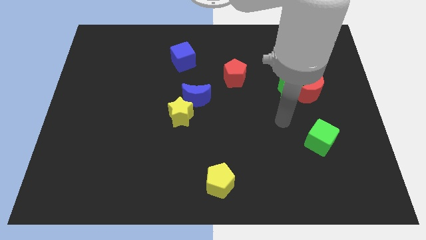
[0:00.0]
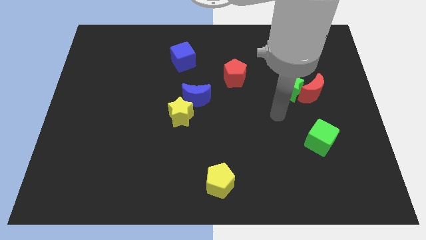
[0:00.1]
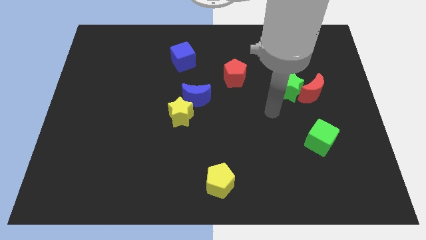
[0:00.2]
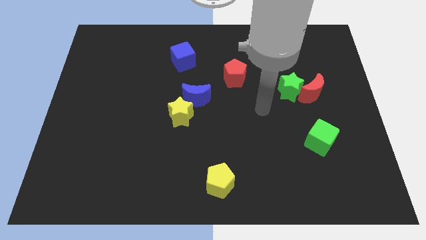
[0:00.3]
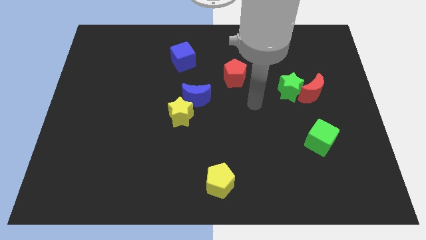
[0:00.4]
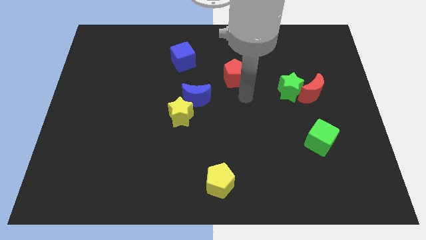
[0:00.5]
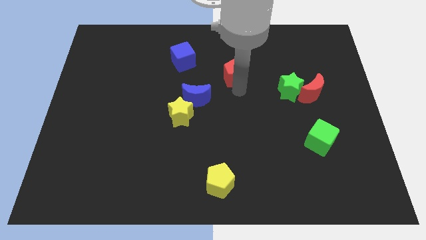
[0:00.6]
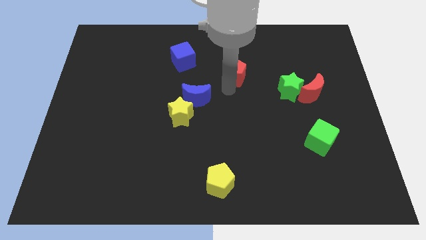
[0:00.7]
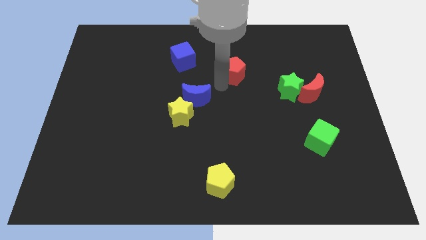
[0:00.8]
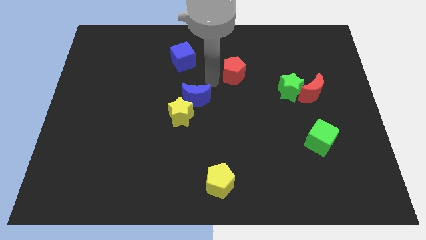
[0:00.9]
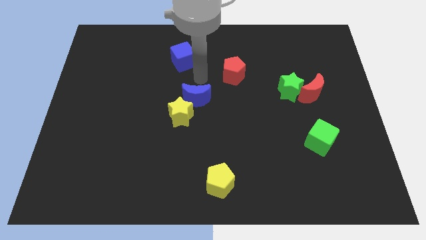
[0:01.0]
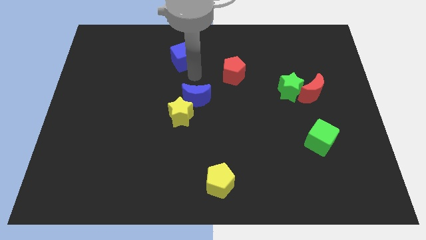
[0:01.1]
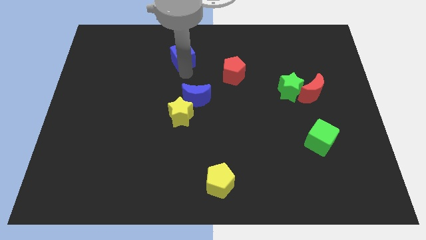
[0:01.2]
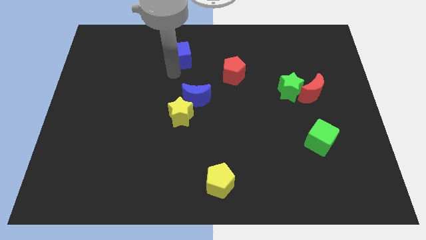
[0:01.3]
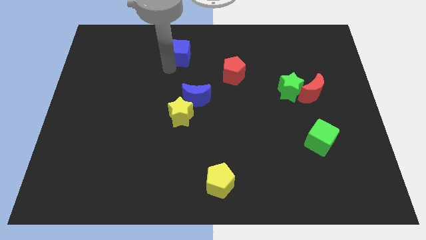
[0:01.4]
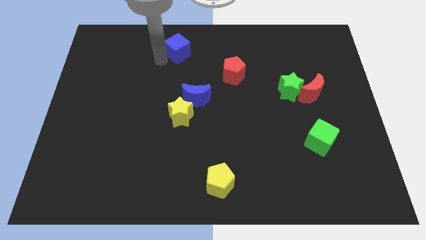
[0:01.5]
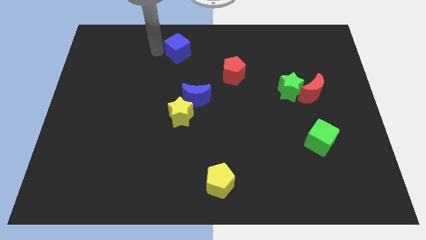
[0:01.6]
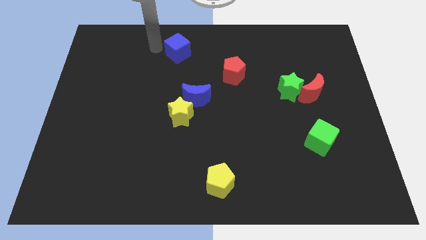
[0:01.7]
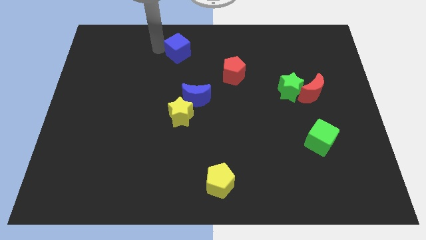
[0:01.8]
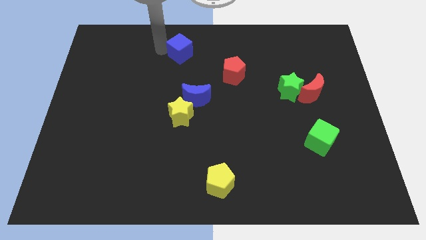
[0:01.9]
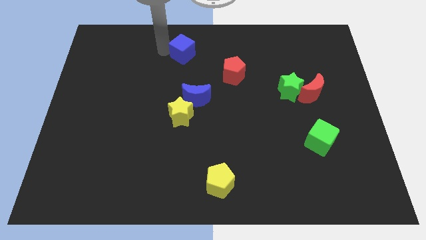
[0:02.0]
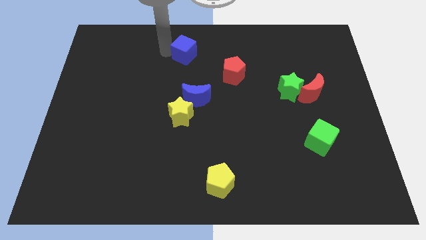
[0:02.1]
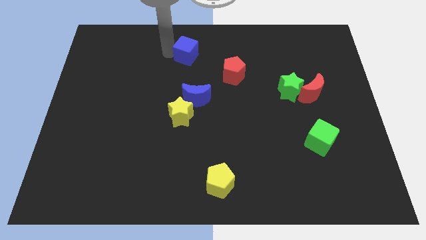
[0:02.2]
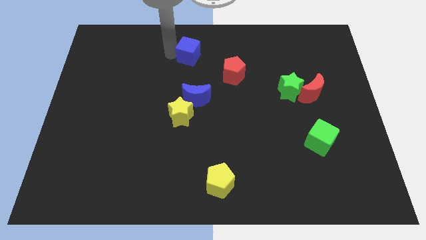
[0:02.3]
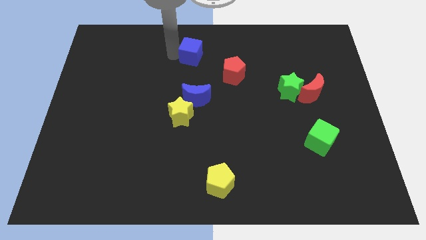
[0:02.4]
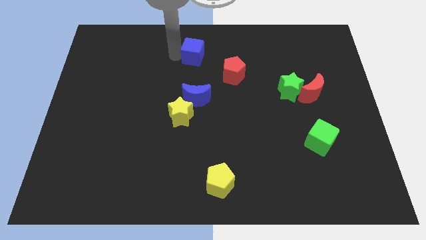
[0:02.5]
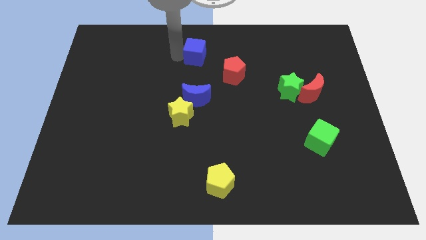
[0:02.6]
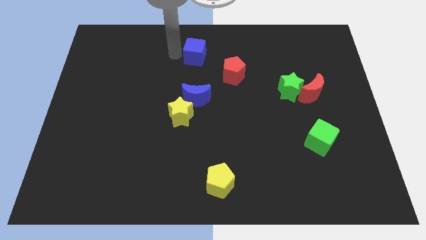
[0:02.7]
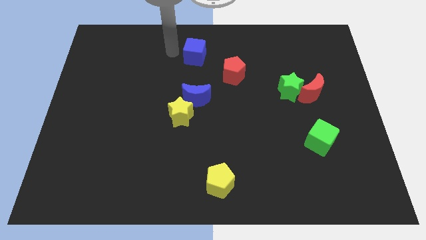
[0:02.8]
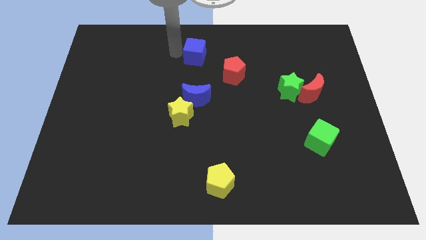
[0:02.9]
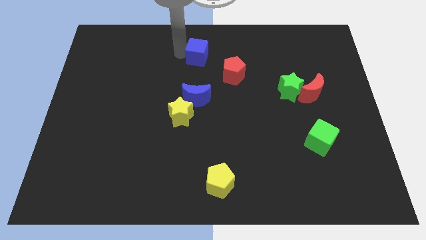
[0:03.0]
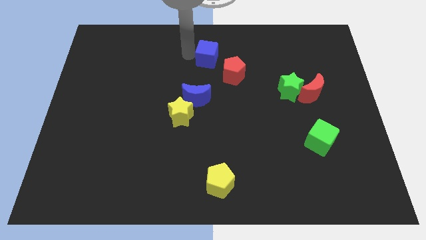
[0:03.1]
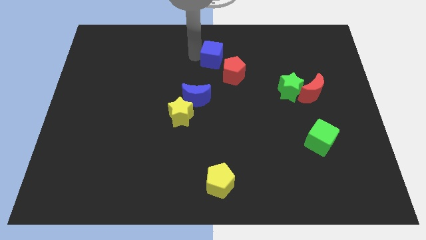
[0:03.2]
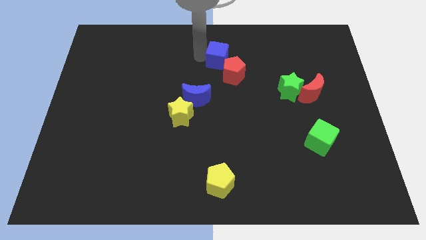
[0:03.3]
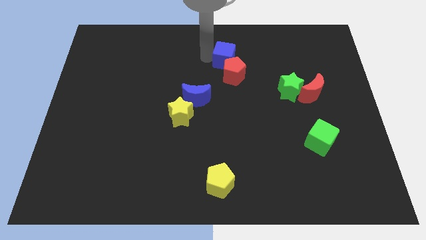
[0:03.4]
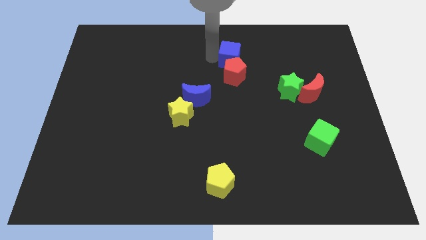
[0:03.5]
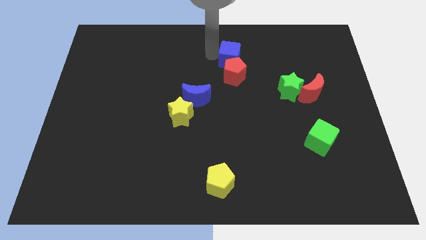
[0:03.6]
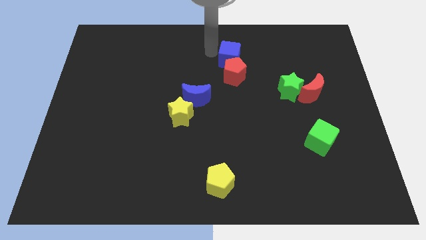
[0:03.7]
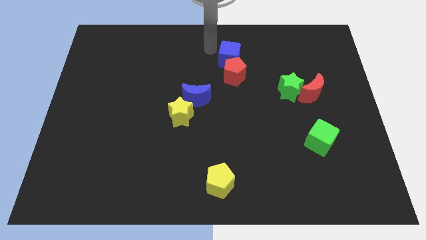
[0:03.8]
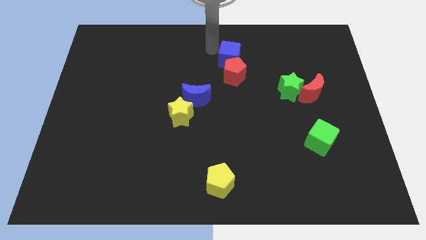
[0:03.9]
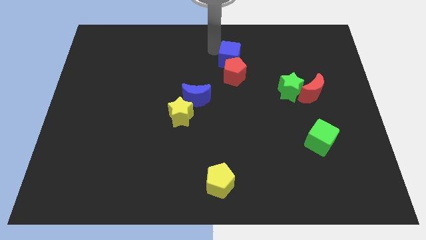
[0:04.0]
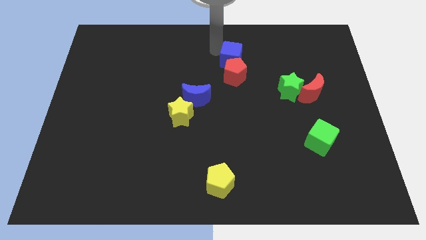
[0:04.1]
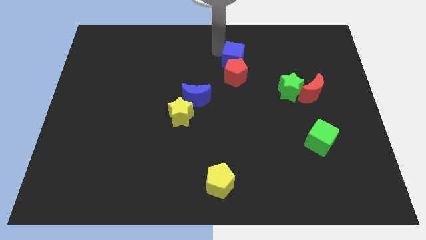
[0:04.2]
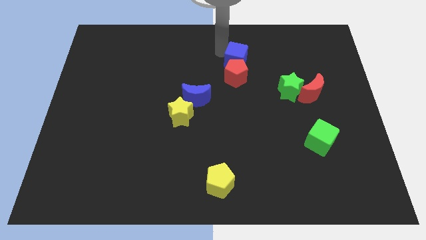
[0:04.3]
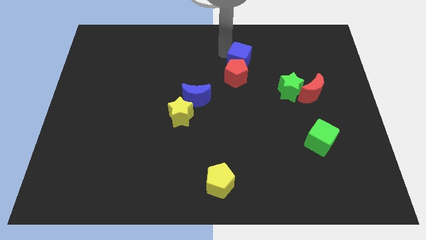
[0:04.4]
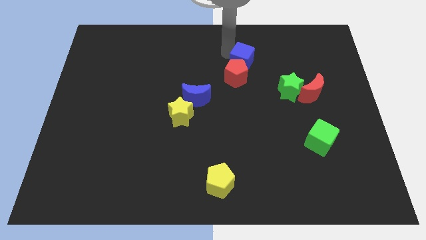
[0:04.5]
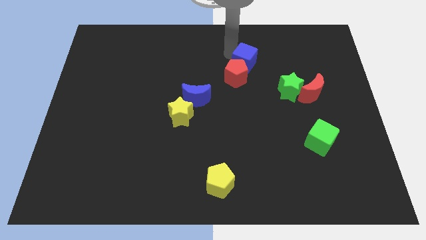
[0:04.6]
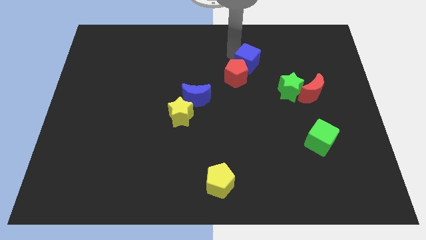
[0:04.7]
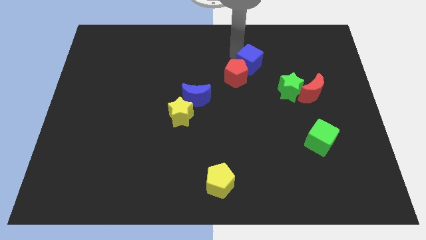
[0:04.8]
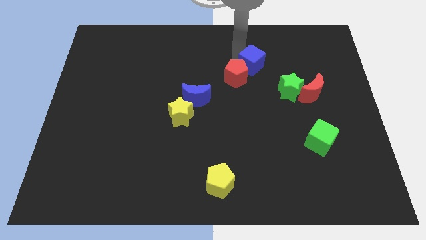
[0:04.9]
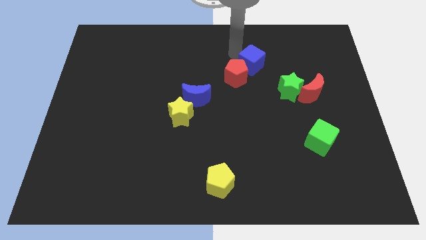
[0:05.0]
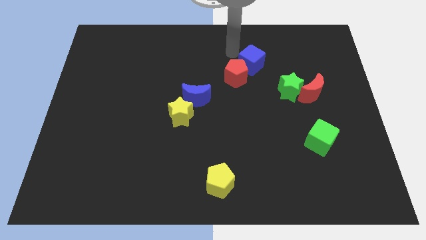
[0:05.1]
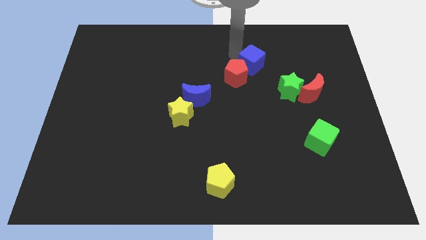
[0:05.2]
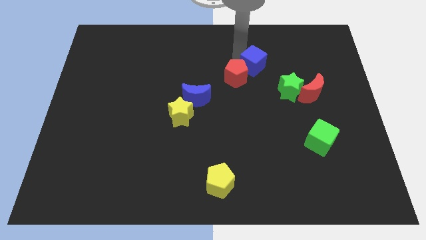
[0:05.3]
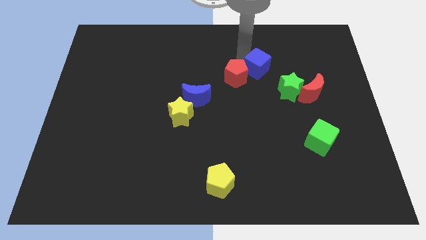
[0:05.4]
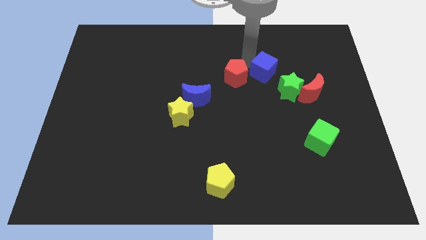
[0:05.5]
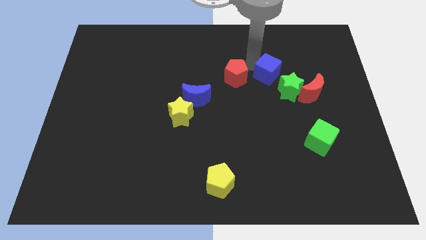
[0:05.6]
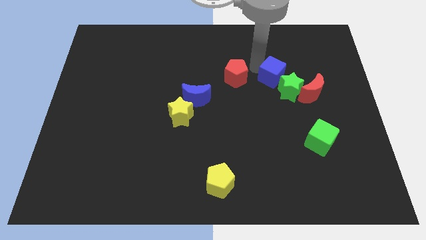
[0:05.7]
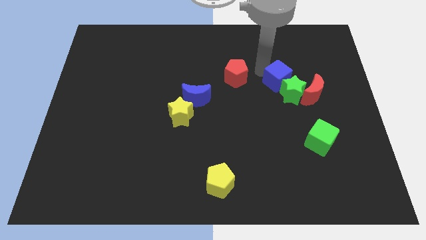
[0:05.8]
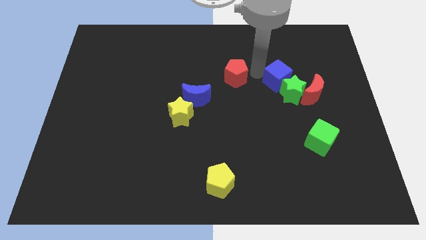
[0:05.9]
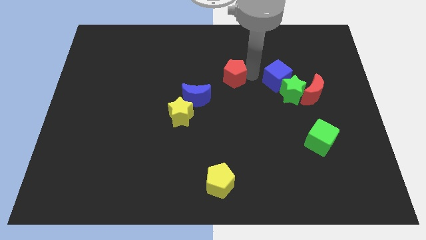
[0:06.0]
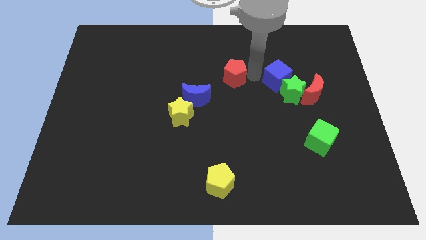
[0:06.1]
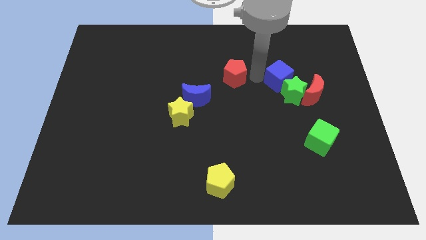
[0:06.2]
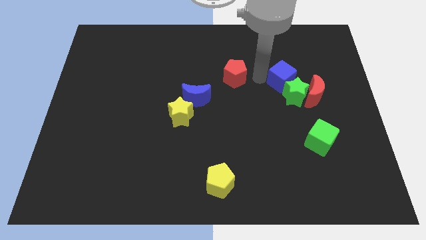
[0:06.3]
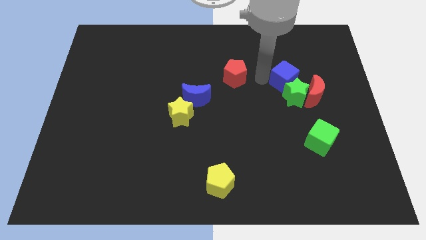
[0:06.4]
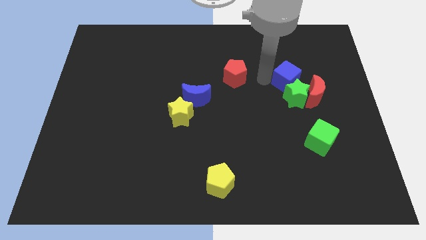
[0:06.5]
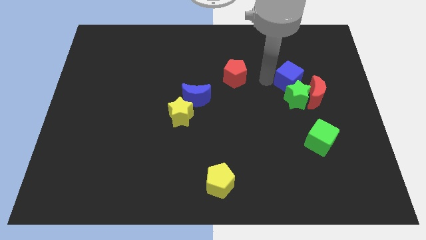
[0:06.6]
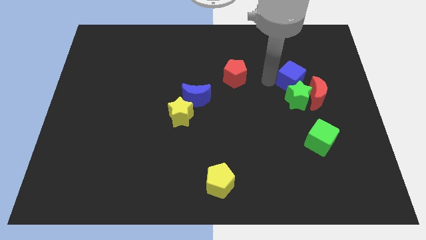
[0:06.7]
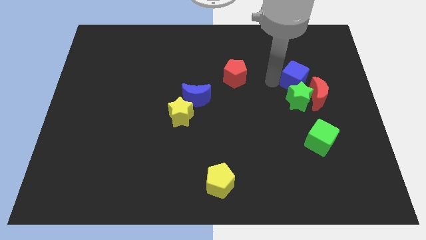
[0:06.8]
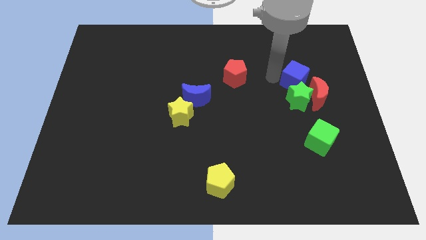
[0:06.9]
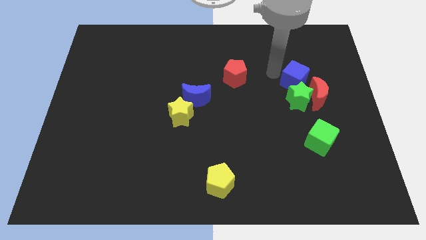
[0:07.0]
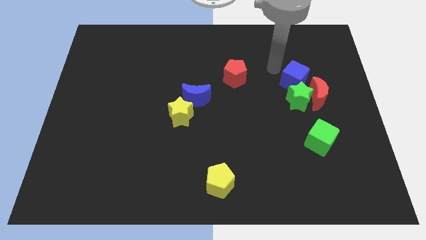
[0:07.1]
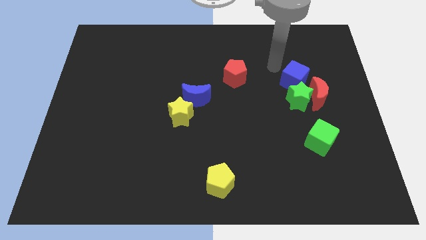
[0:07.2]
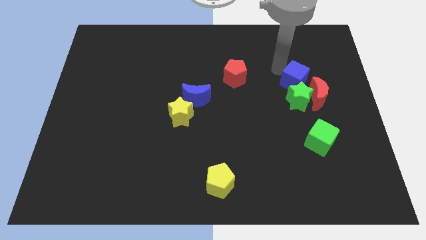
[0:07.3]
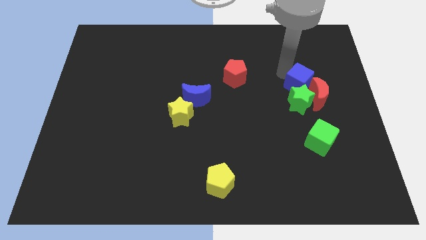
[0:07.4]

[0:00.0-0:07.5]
move the blue cube close to the red moon
